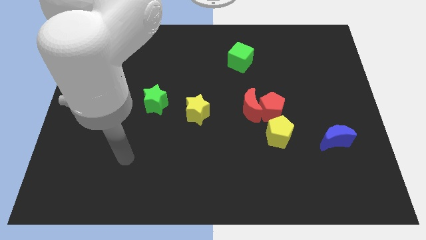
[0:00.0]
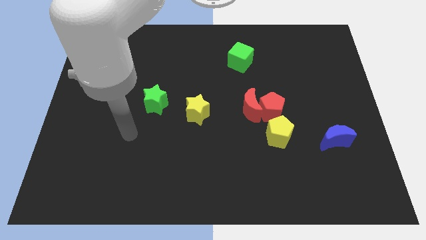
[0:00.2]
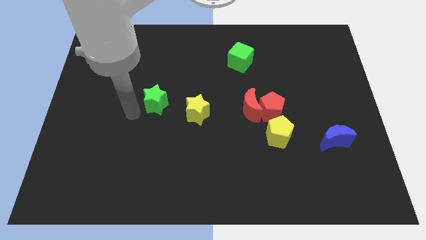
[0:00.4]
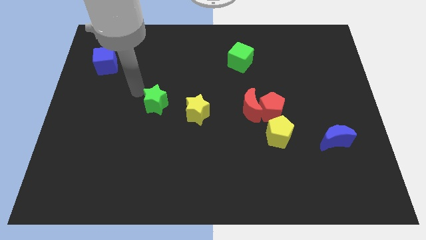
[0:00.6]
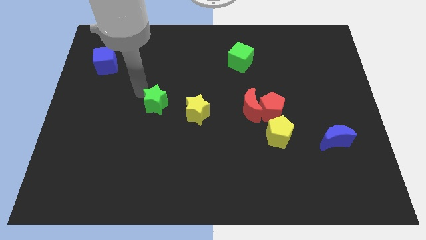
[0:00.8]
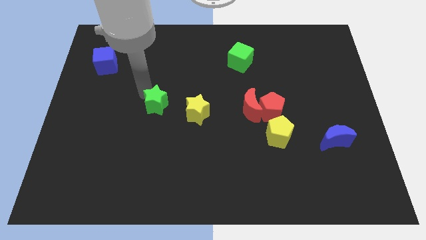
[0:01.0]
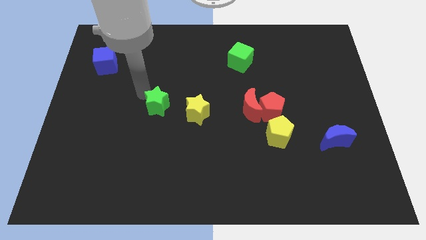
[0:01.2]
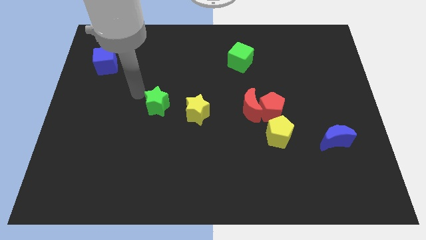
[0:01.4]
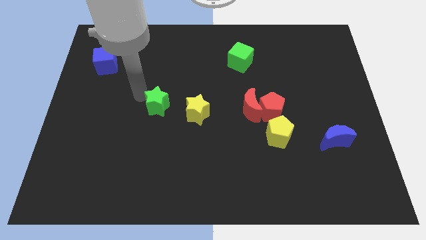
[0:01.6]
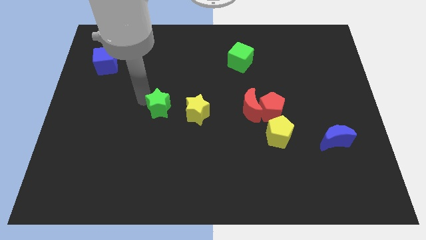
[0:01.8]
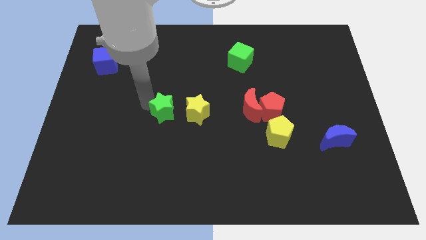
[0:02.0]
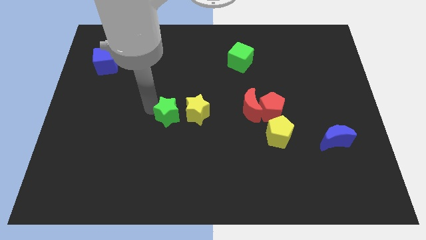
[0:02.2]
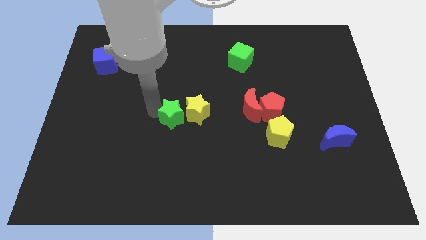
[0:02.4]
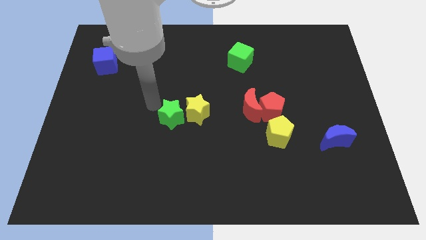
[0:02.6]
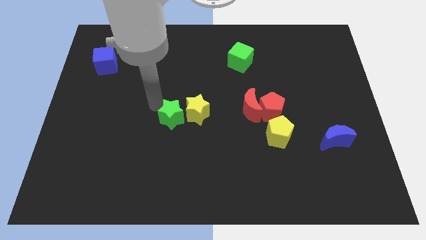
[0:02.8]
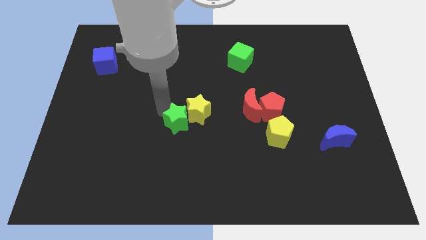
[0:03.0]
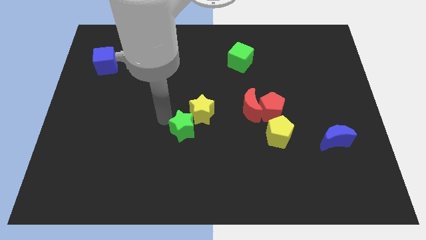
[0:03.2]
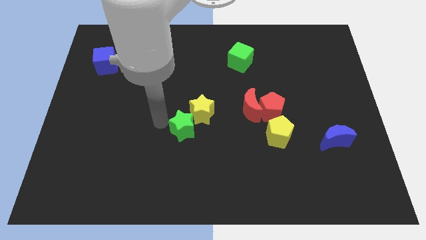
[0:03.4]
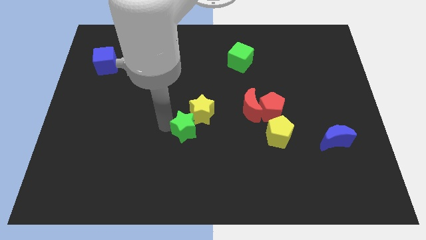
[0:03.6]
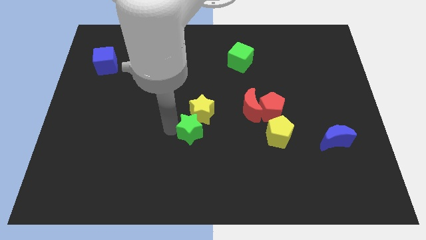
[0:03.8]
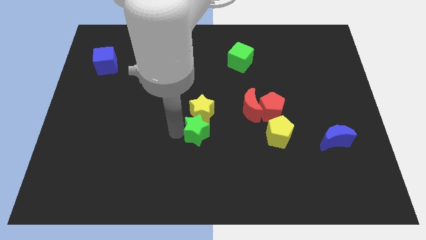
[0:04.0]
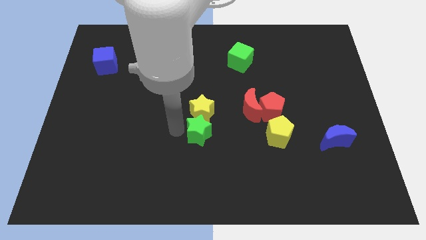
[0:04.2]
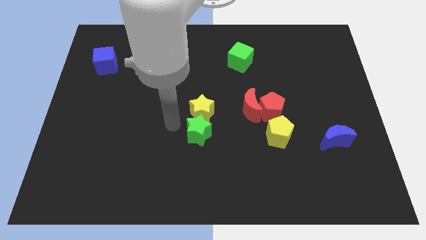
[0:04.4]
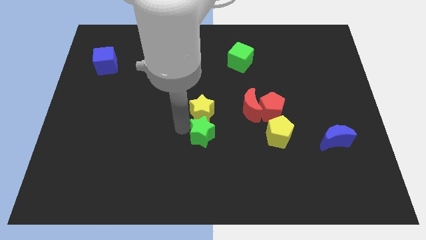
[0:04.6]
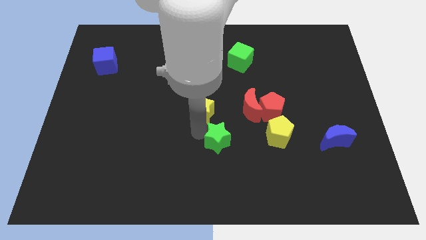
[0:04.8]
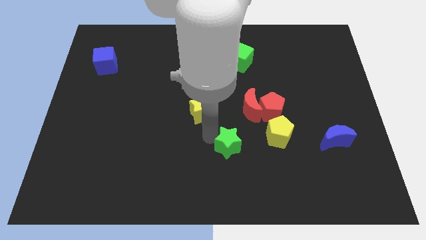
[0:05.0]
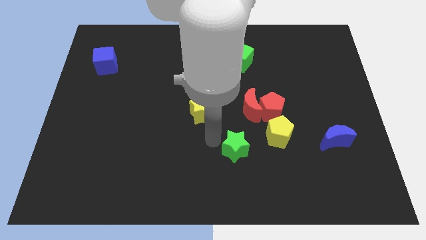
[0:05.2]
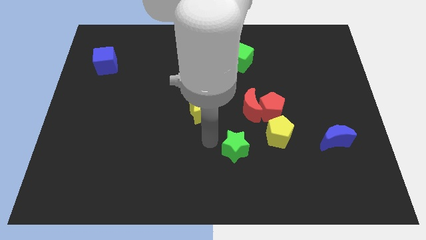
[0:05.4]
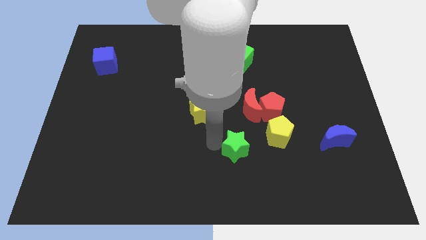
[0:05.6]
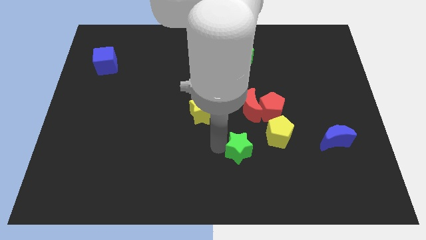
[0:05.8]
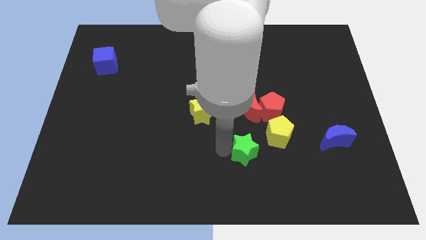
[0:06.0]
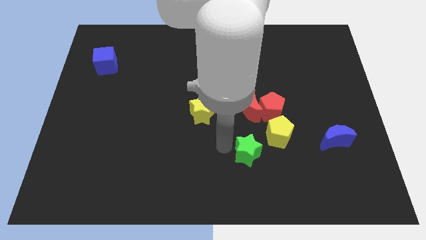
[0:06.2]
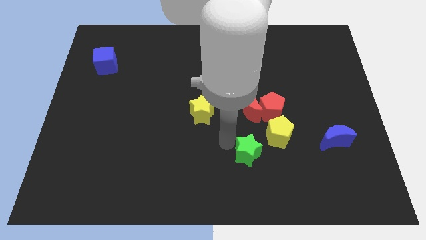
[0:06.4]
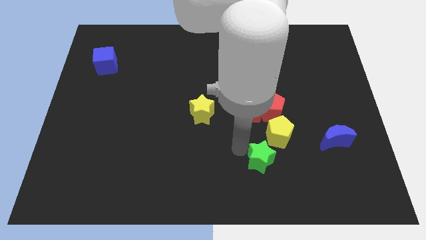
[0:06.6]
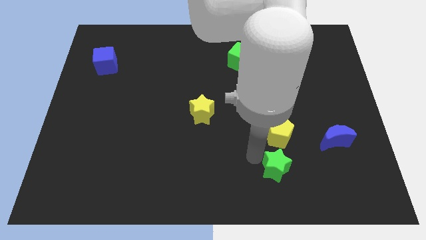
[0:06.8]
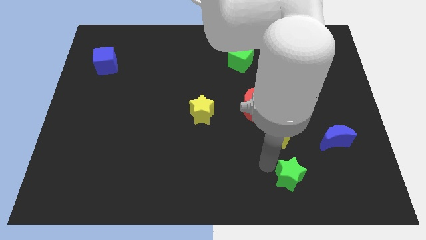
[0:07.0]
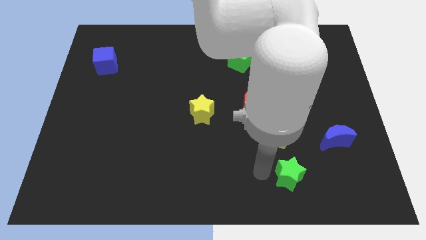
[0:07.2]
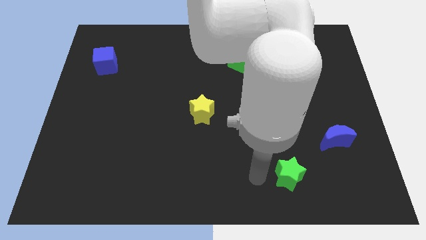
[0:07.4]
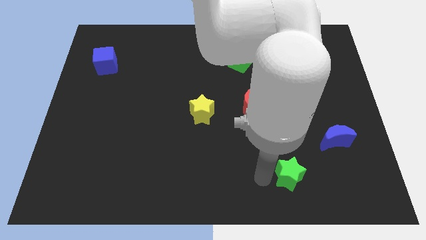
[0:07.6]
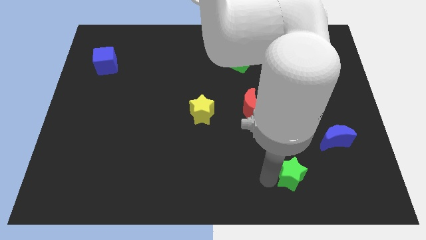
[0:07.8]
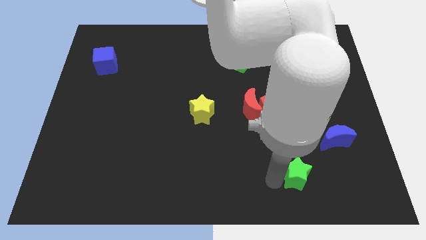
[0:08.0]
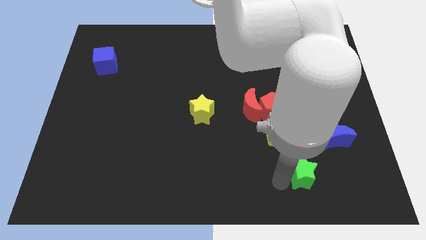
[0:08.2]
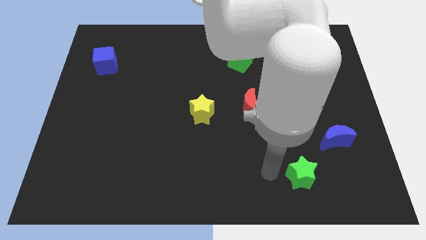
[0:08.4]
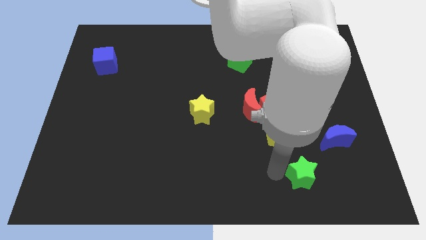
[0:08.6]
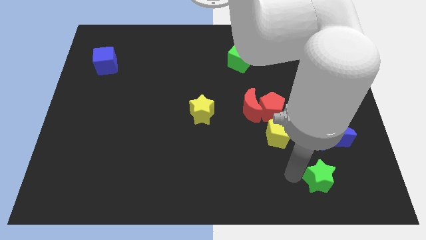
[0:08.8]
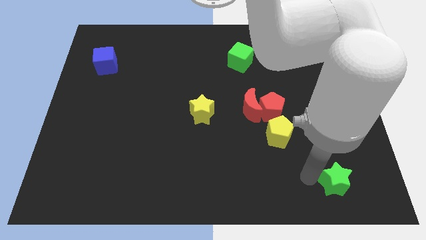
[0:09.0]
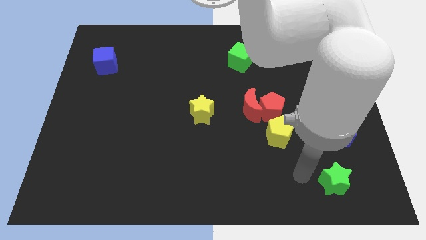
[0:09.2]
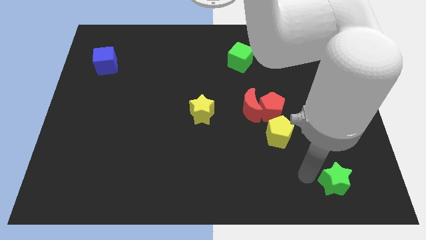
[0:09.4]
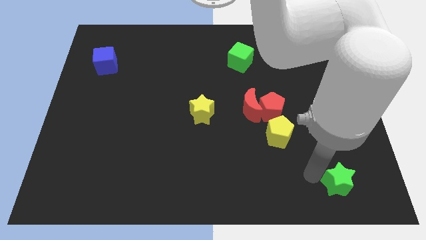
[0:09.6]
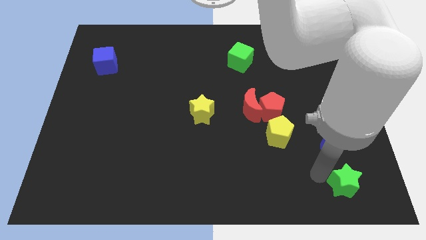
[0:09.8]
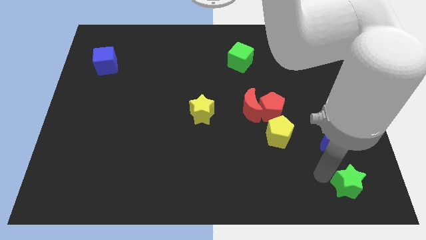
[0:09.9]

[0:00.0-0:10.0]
slide the green star to the bottom right of the board

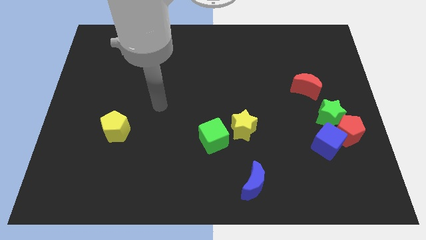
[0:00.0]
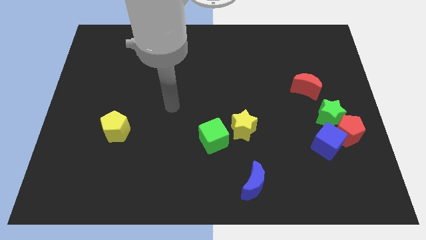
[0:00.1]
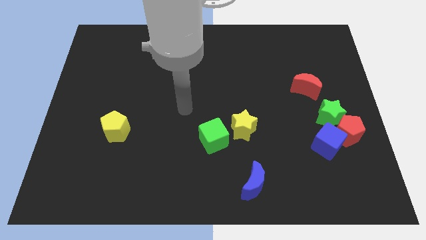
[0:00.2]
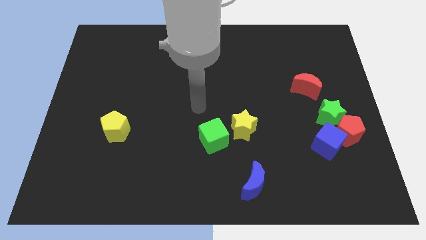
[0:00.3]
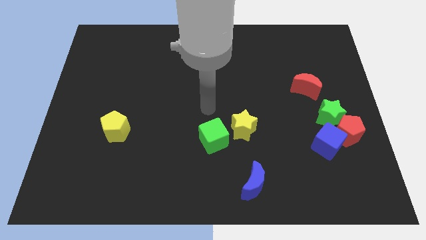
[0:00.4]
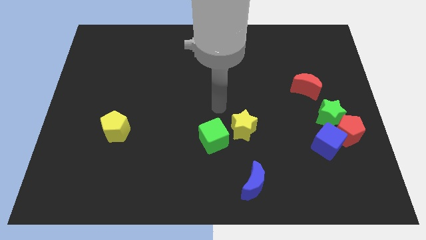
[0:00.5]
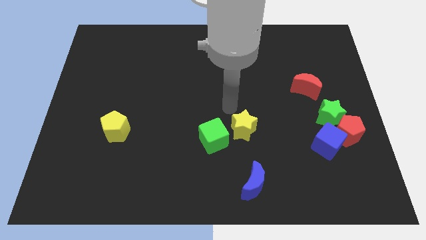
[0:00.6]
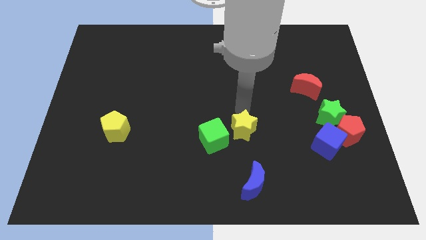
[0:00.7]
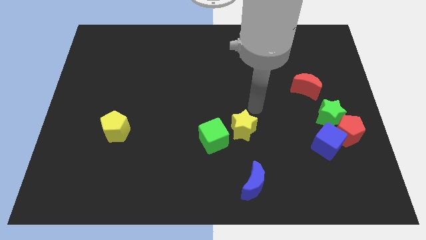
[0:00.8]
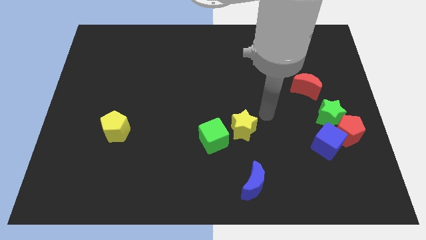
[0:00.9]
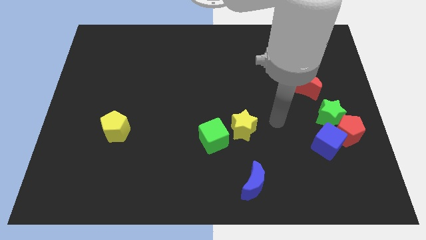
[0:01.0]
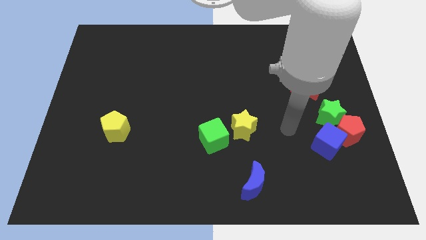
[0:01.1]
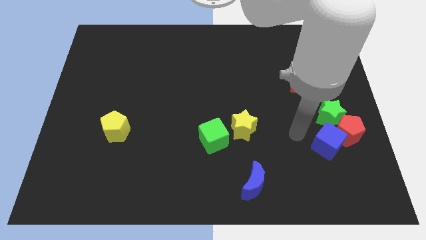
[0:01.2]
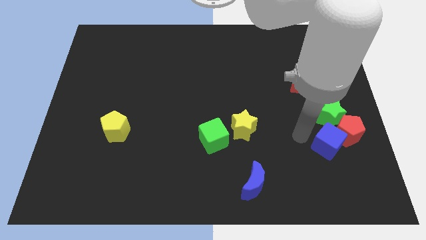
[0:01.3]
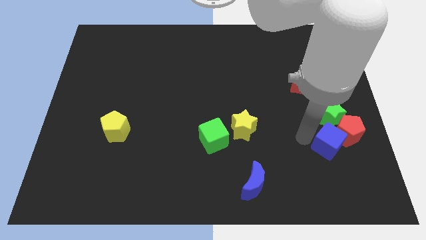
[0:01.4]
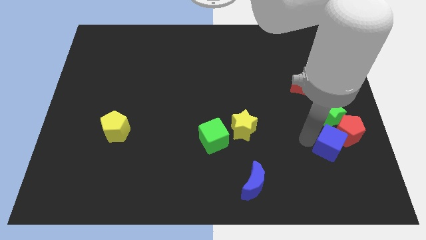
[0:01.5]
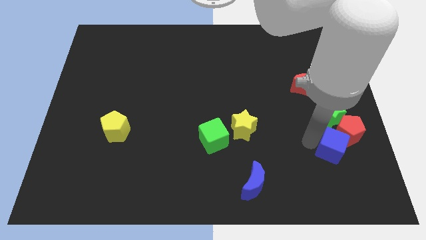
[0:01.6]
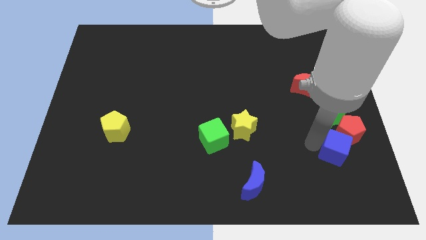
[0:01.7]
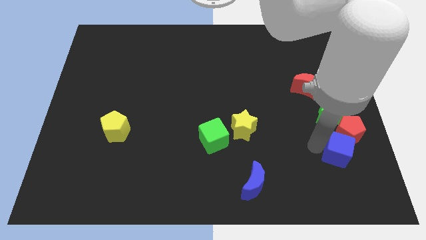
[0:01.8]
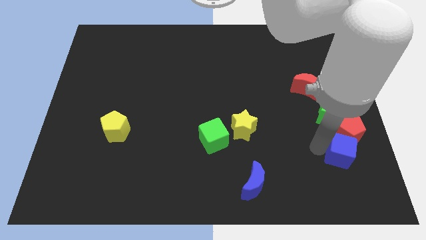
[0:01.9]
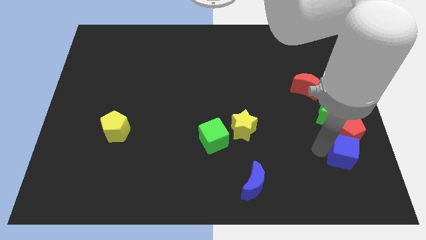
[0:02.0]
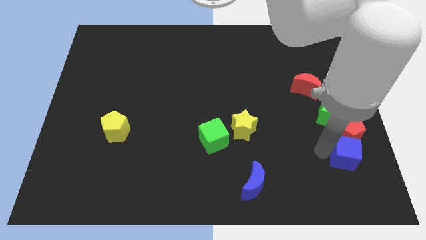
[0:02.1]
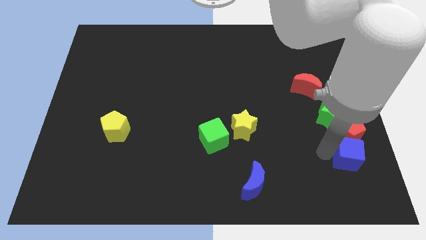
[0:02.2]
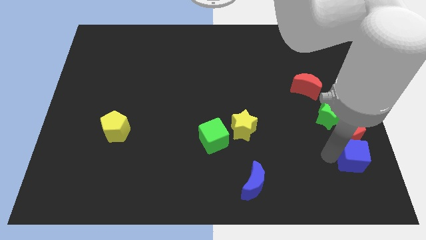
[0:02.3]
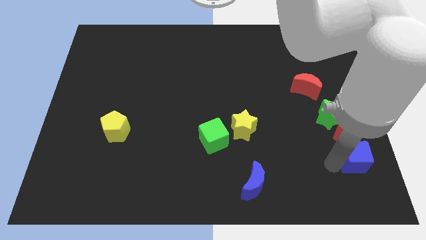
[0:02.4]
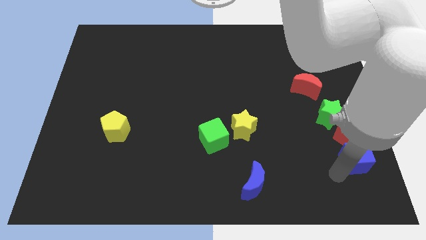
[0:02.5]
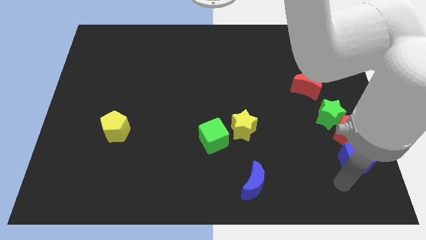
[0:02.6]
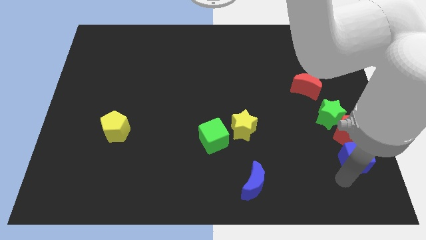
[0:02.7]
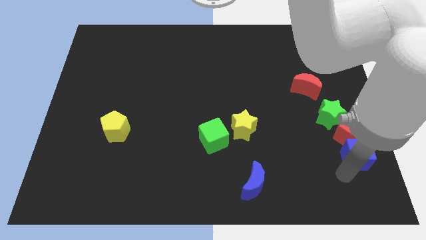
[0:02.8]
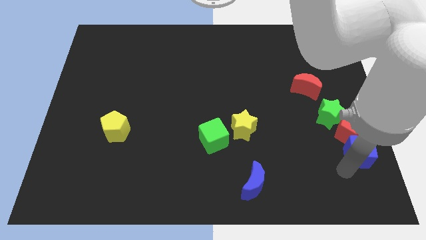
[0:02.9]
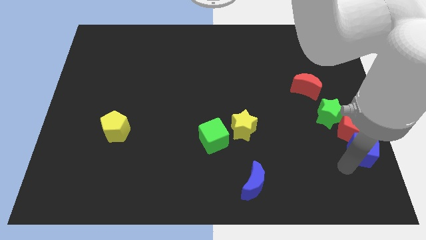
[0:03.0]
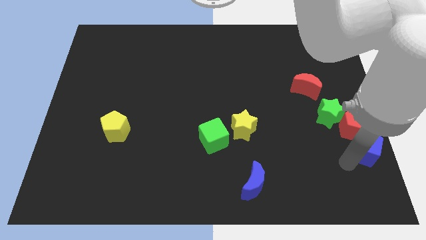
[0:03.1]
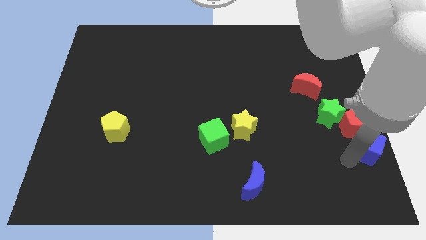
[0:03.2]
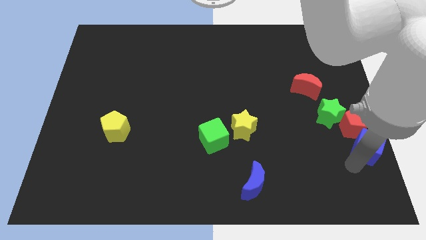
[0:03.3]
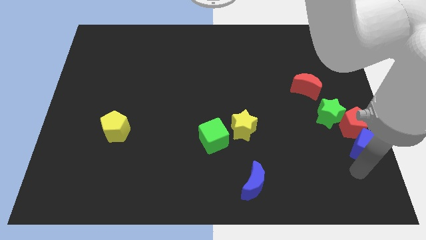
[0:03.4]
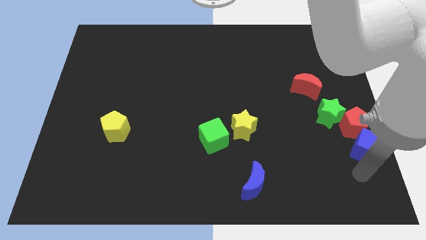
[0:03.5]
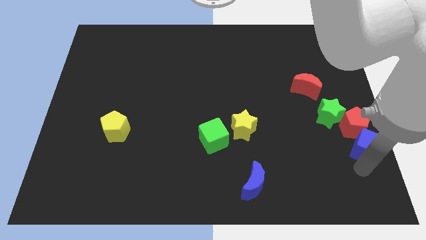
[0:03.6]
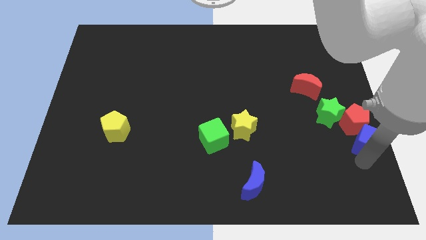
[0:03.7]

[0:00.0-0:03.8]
push the blue cube to the right side of the board
